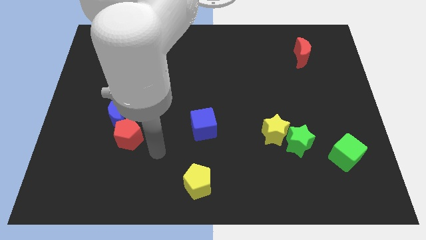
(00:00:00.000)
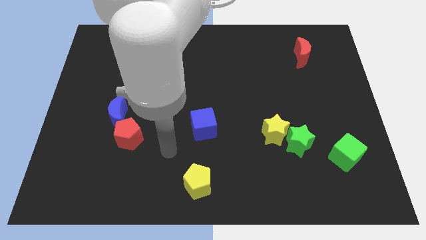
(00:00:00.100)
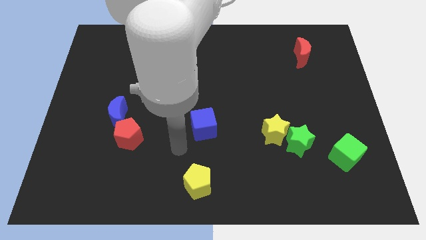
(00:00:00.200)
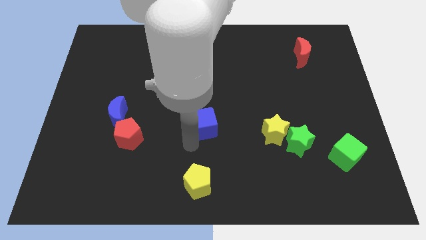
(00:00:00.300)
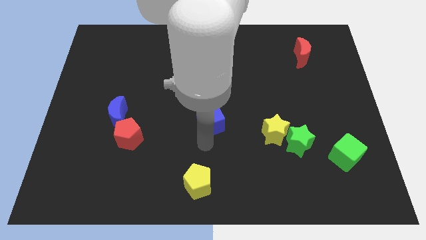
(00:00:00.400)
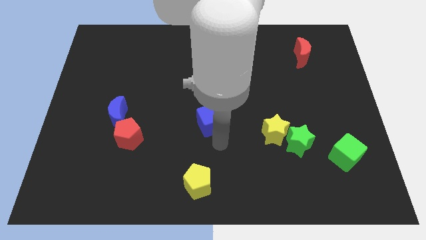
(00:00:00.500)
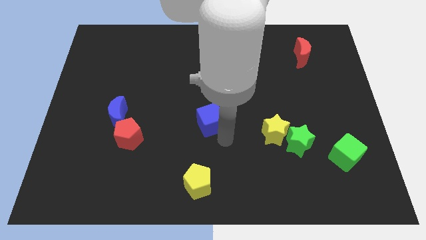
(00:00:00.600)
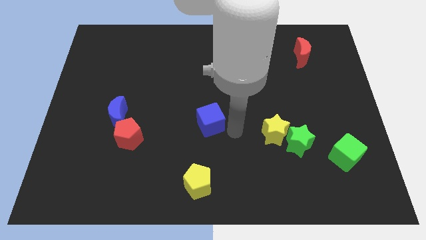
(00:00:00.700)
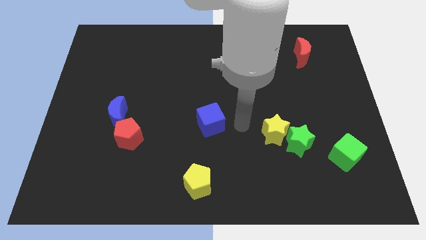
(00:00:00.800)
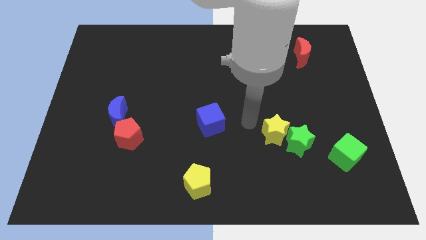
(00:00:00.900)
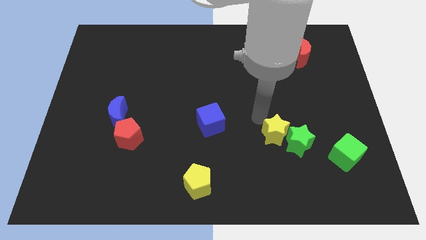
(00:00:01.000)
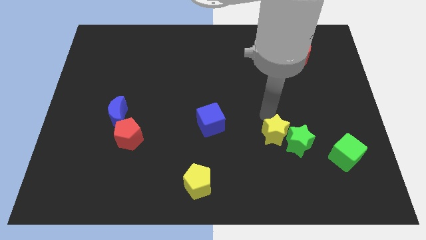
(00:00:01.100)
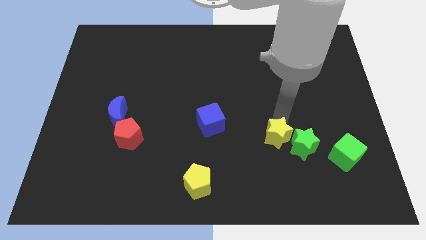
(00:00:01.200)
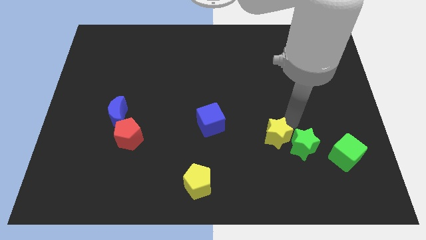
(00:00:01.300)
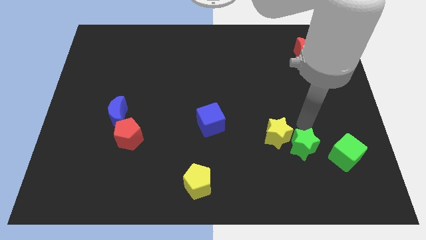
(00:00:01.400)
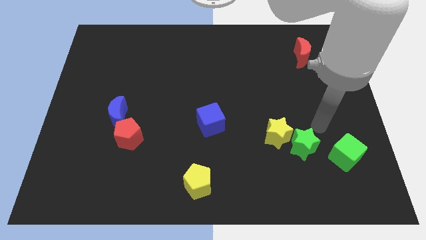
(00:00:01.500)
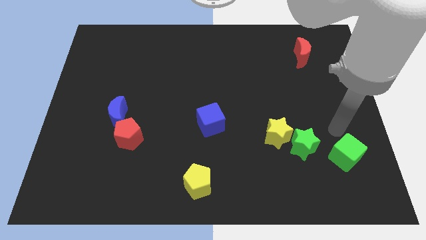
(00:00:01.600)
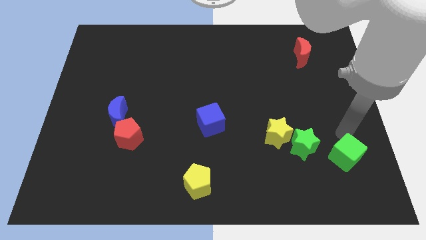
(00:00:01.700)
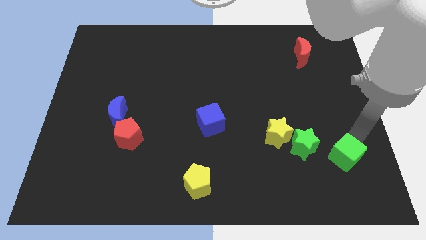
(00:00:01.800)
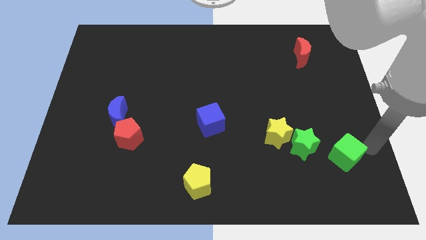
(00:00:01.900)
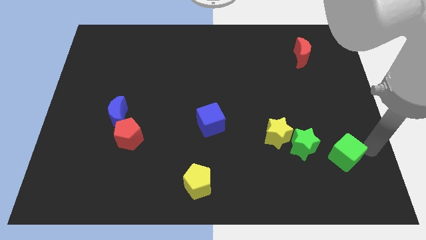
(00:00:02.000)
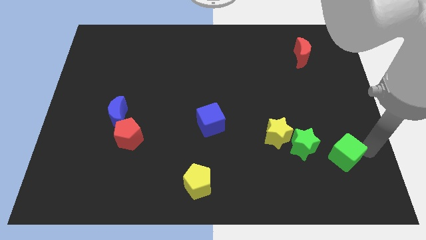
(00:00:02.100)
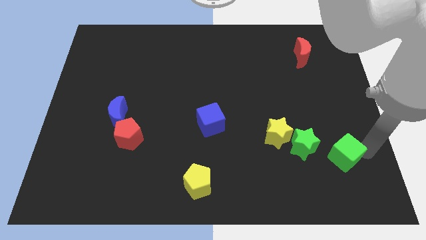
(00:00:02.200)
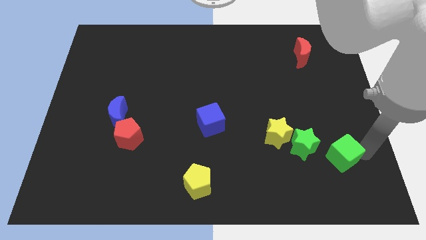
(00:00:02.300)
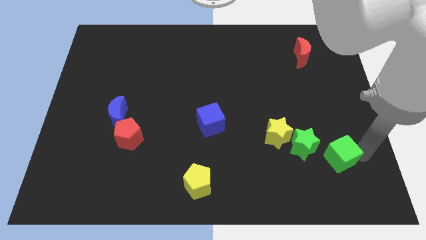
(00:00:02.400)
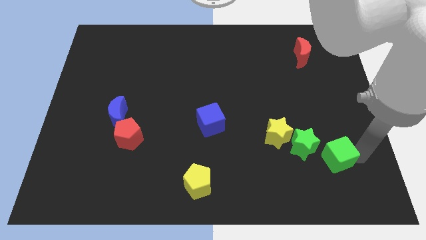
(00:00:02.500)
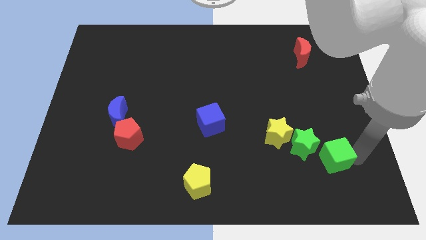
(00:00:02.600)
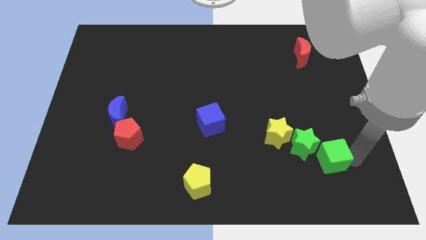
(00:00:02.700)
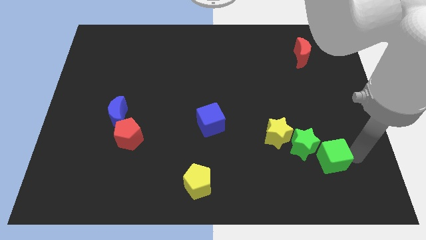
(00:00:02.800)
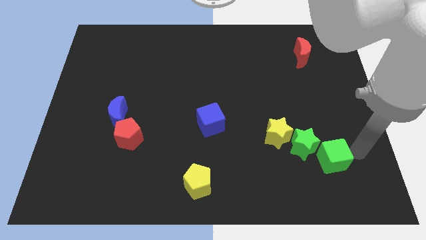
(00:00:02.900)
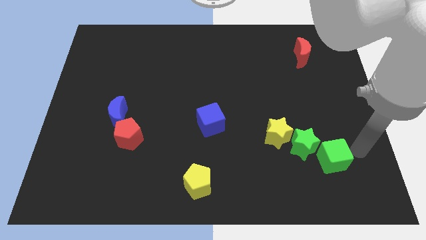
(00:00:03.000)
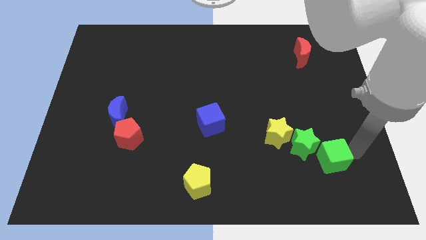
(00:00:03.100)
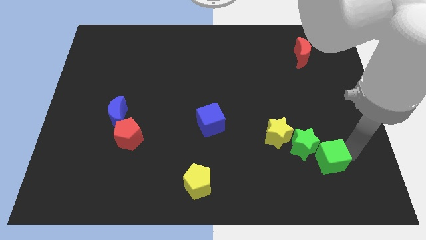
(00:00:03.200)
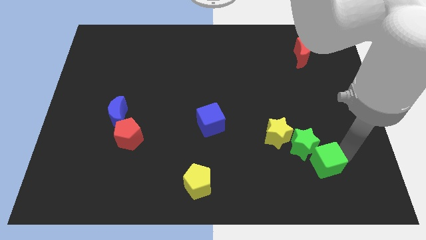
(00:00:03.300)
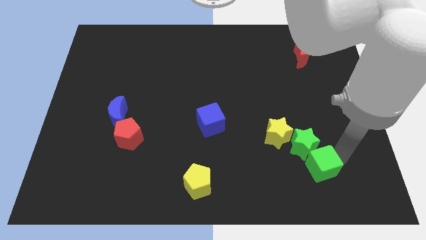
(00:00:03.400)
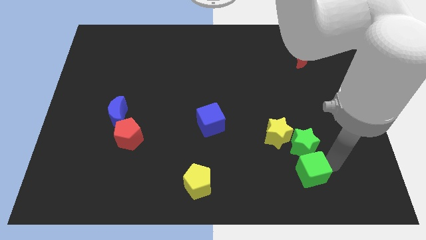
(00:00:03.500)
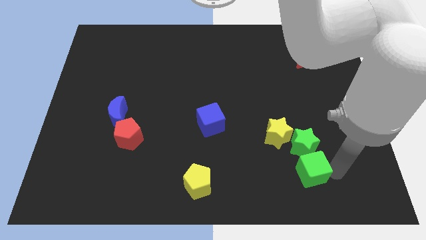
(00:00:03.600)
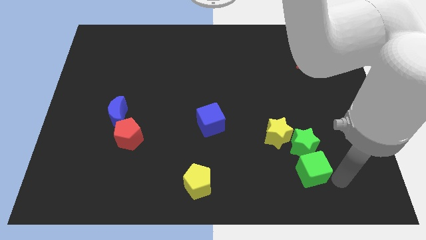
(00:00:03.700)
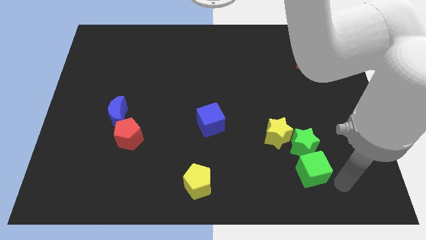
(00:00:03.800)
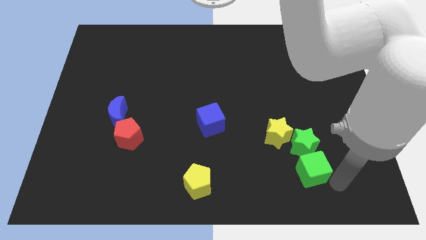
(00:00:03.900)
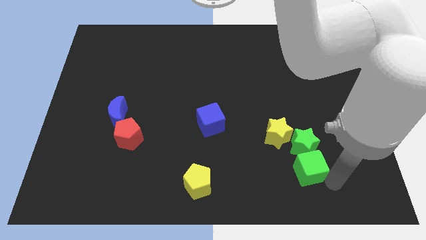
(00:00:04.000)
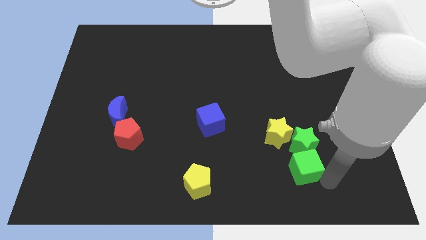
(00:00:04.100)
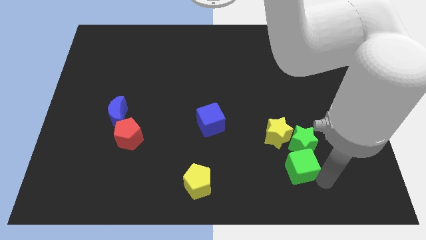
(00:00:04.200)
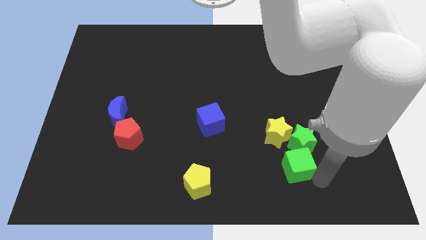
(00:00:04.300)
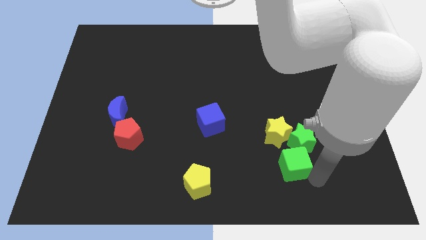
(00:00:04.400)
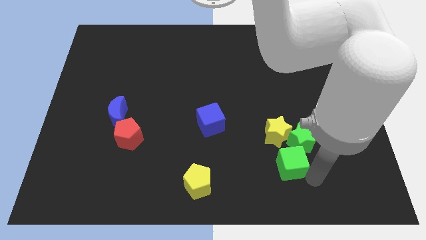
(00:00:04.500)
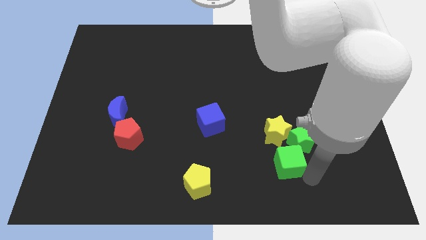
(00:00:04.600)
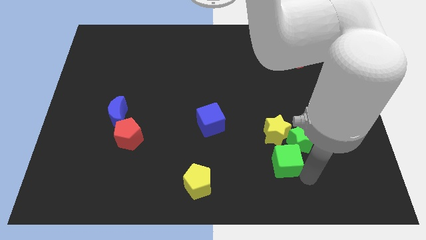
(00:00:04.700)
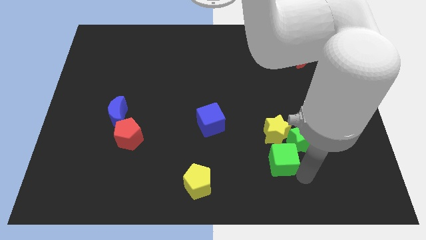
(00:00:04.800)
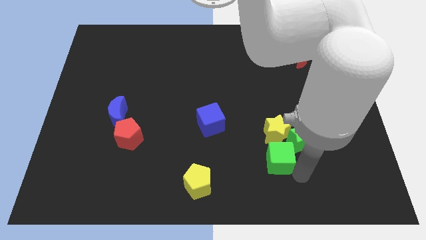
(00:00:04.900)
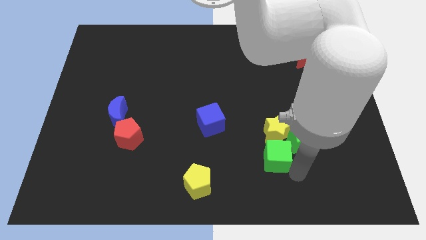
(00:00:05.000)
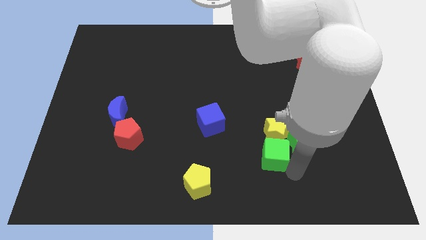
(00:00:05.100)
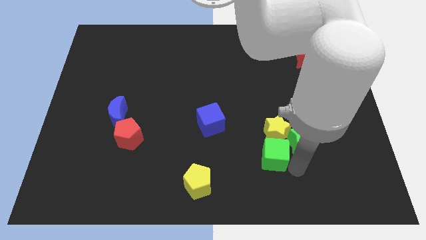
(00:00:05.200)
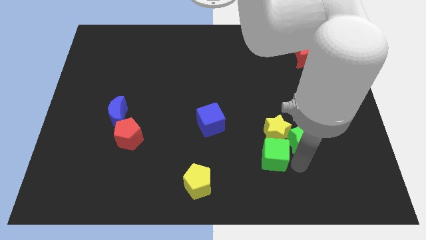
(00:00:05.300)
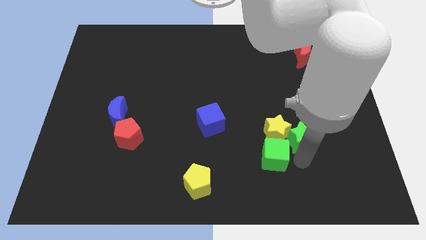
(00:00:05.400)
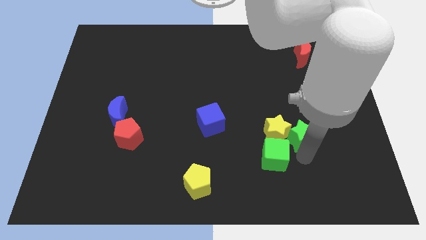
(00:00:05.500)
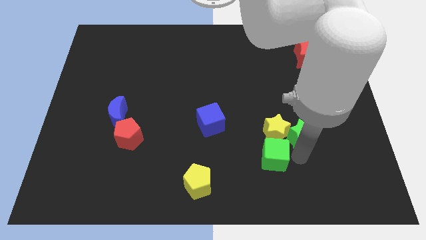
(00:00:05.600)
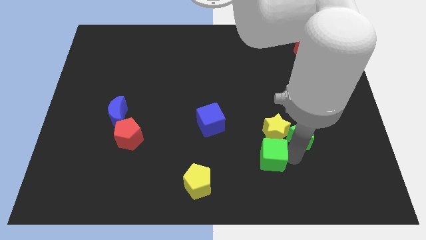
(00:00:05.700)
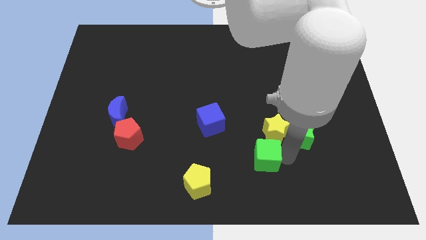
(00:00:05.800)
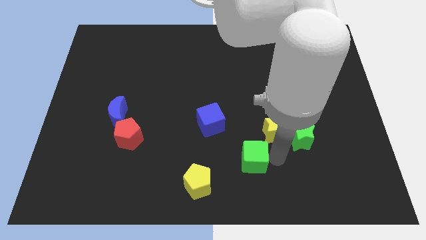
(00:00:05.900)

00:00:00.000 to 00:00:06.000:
move the green cube to the left

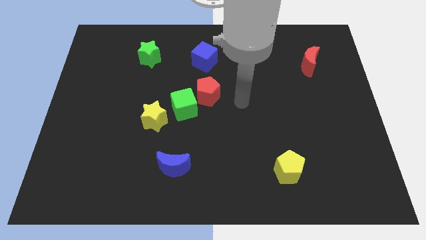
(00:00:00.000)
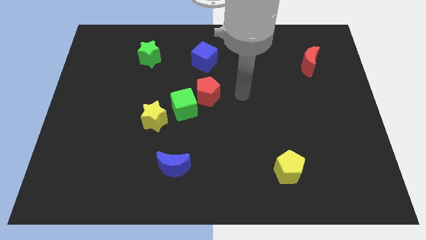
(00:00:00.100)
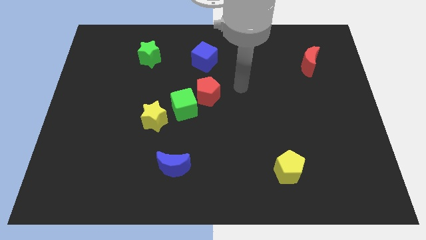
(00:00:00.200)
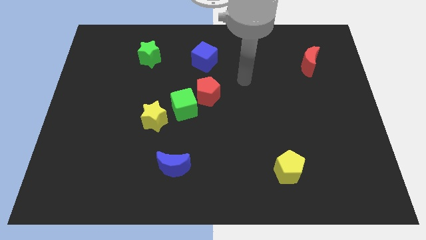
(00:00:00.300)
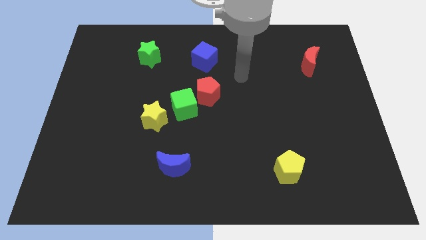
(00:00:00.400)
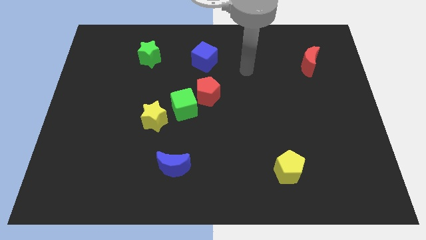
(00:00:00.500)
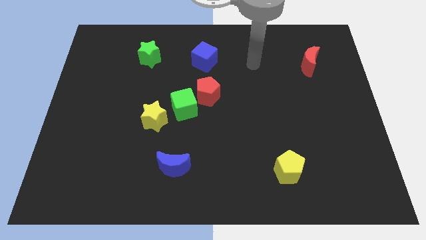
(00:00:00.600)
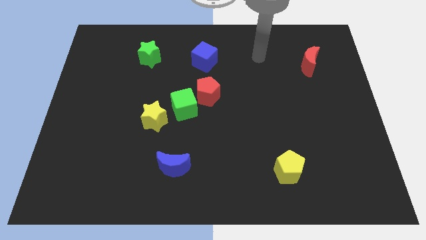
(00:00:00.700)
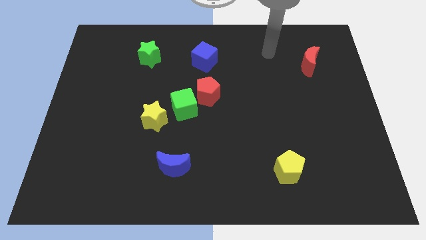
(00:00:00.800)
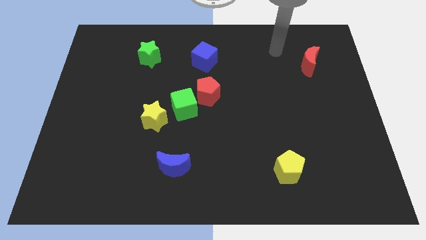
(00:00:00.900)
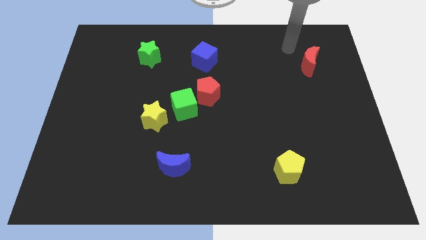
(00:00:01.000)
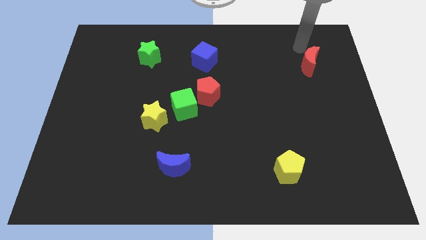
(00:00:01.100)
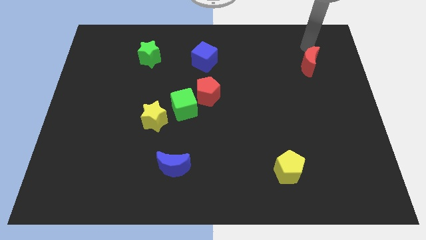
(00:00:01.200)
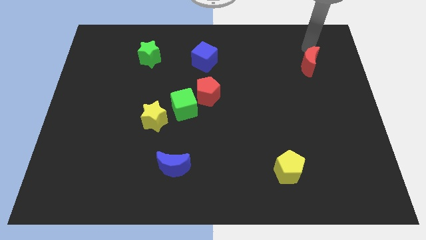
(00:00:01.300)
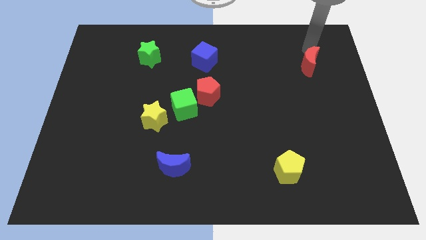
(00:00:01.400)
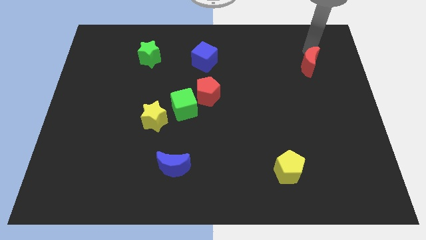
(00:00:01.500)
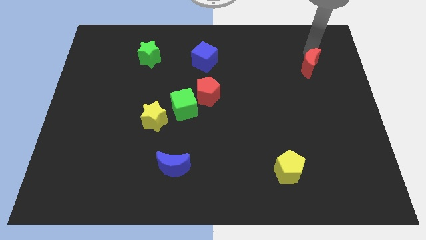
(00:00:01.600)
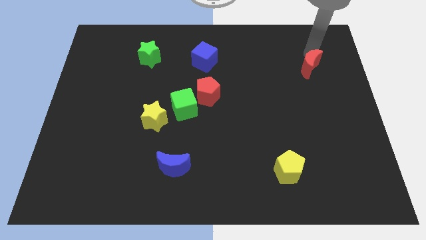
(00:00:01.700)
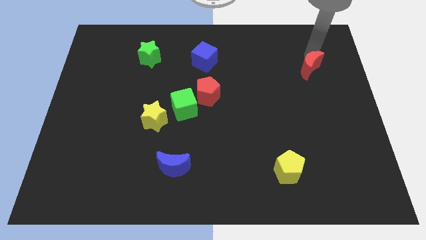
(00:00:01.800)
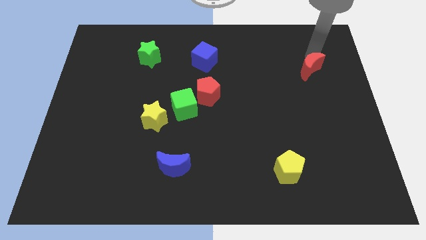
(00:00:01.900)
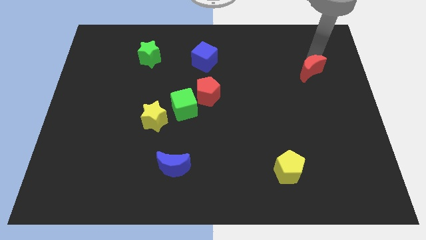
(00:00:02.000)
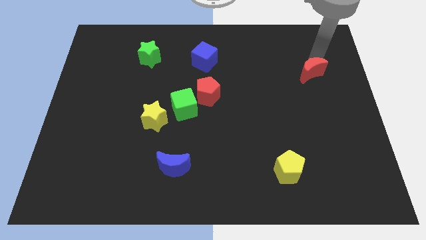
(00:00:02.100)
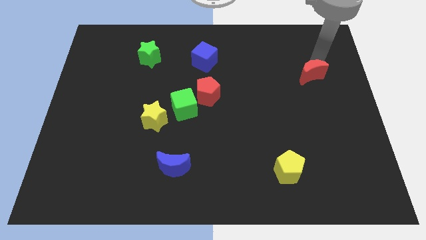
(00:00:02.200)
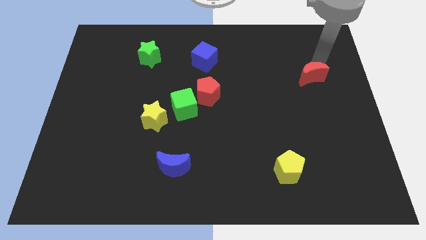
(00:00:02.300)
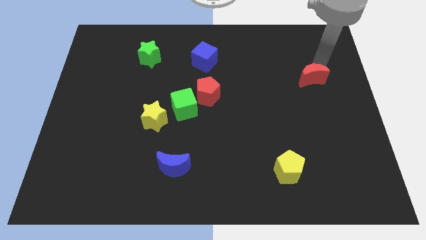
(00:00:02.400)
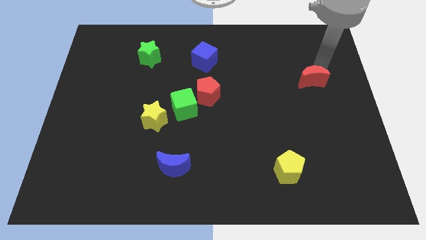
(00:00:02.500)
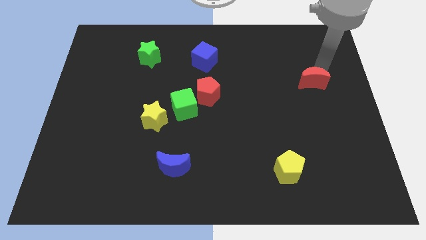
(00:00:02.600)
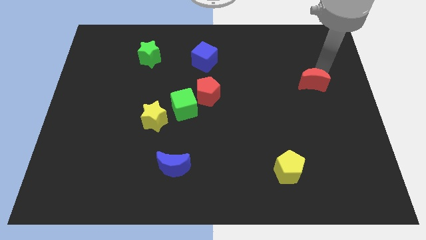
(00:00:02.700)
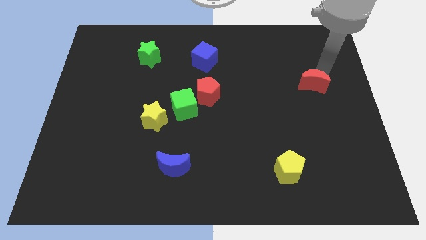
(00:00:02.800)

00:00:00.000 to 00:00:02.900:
slightly slide the red moon downwards
